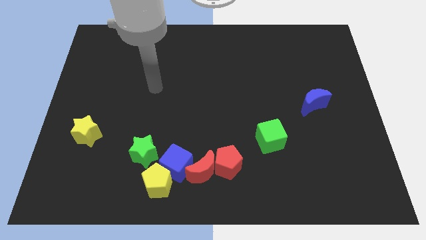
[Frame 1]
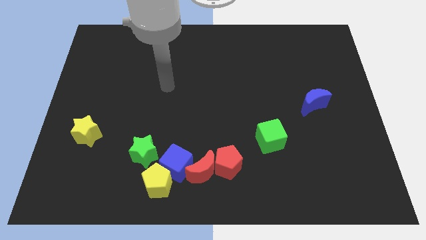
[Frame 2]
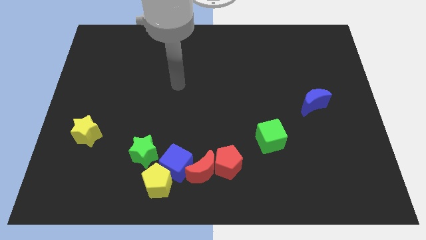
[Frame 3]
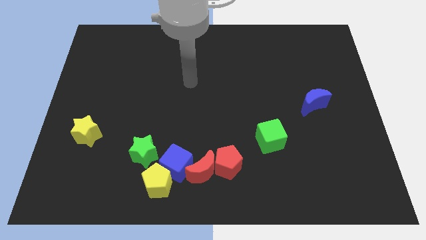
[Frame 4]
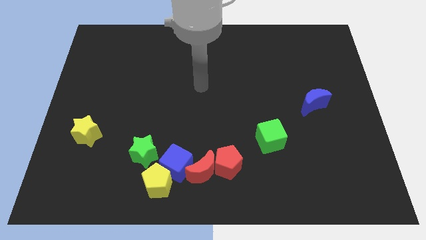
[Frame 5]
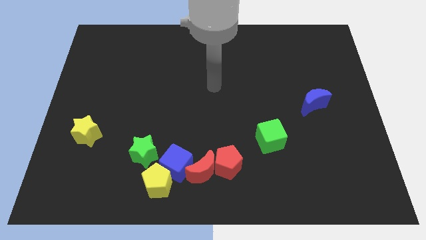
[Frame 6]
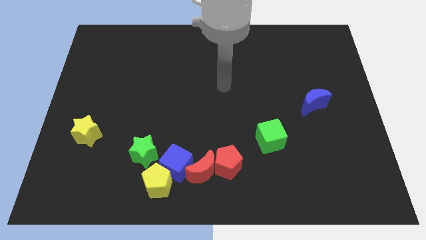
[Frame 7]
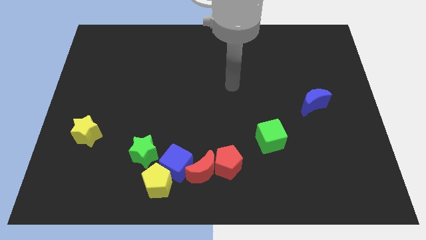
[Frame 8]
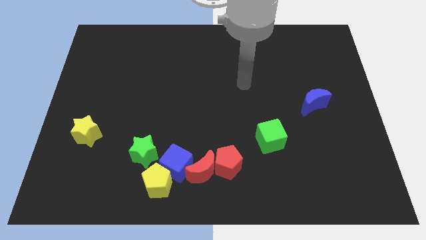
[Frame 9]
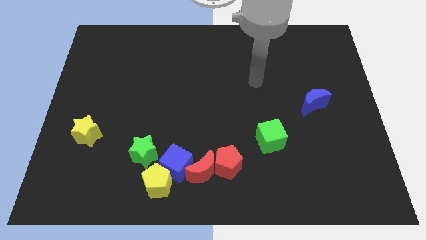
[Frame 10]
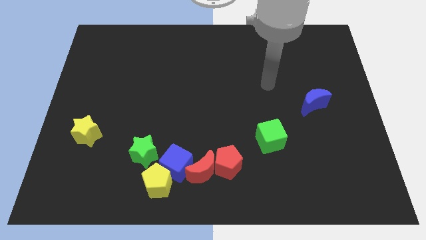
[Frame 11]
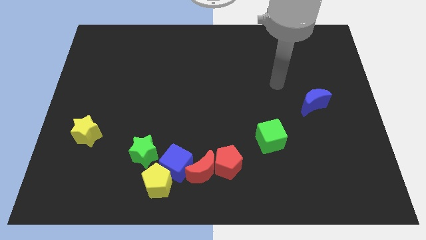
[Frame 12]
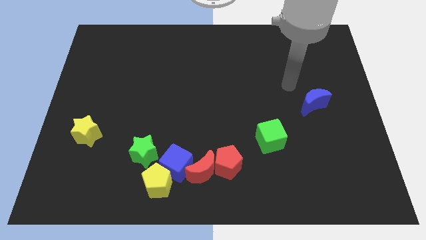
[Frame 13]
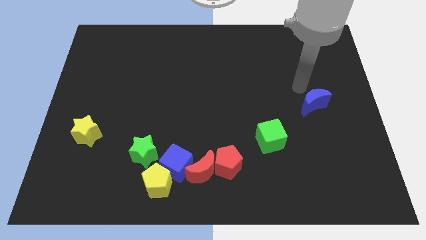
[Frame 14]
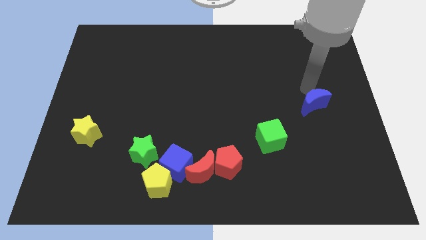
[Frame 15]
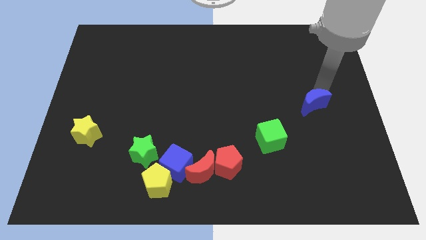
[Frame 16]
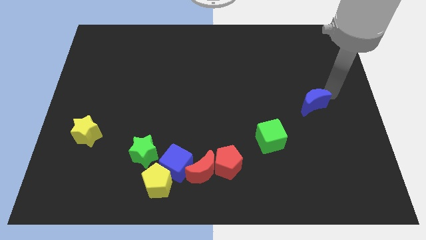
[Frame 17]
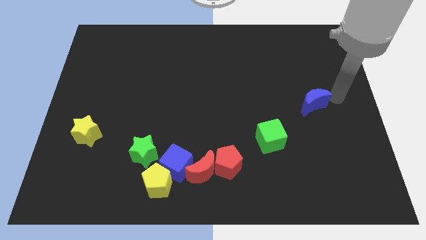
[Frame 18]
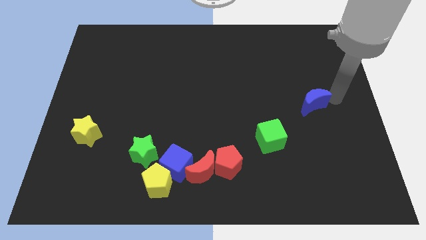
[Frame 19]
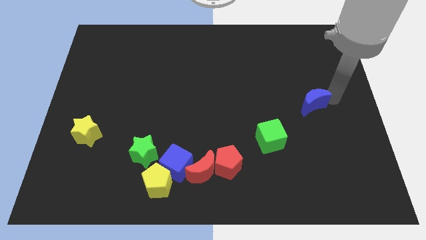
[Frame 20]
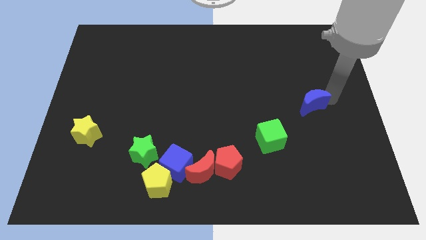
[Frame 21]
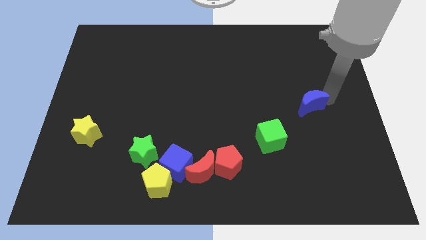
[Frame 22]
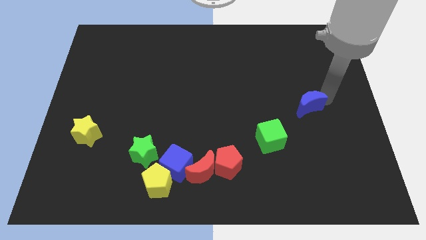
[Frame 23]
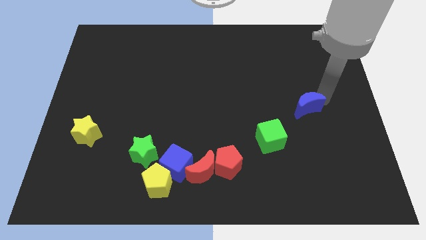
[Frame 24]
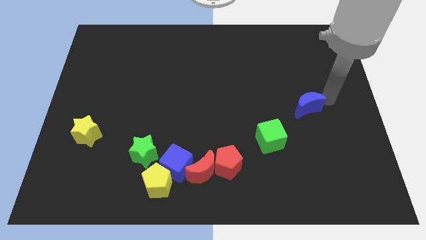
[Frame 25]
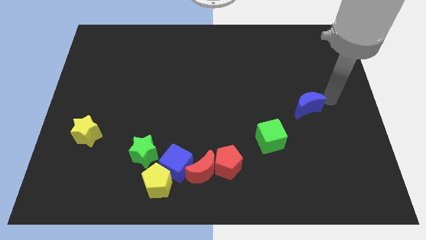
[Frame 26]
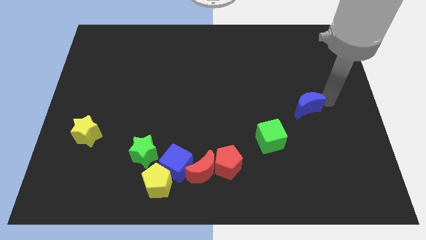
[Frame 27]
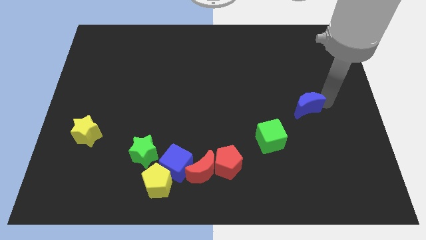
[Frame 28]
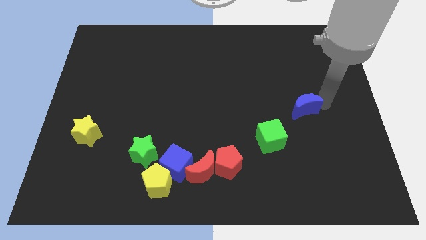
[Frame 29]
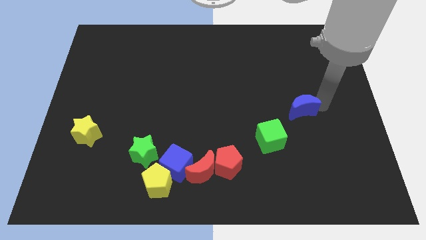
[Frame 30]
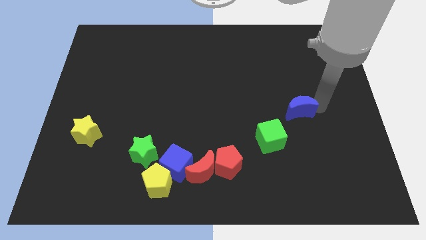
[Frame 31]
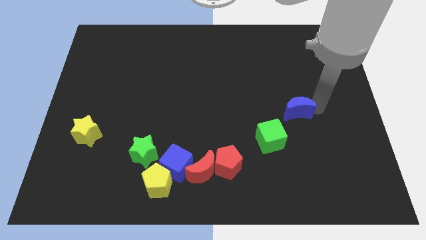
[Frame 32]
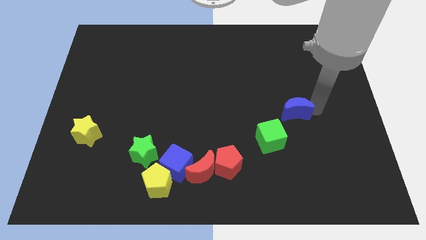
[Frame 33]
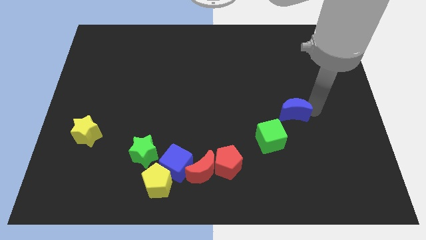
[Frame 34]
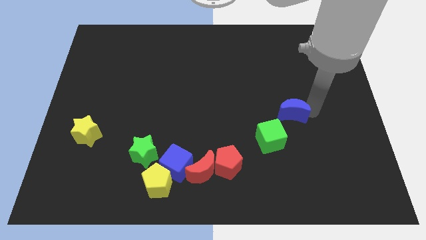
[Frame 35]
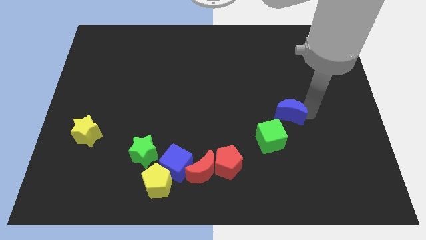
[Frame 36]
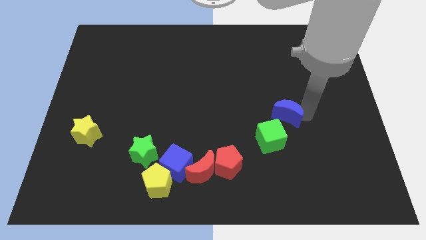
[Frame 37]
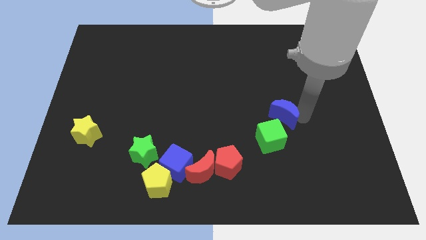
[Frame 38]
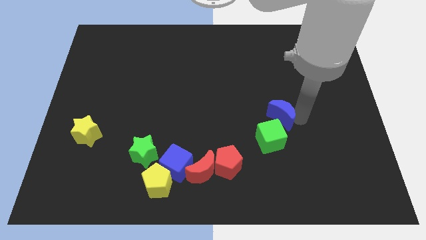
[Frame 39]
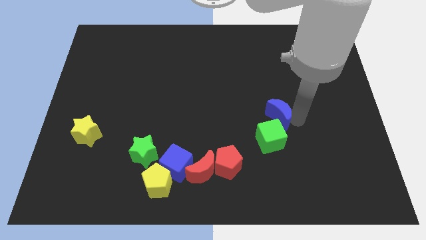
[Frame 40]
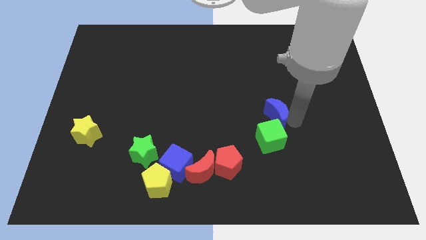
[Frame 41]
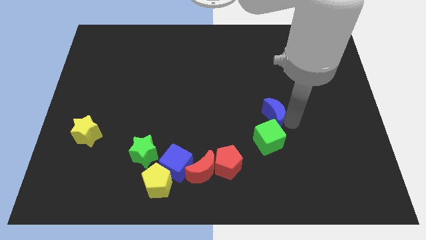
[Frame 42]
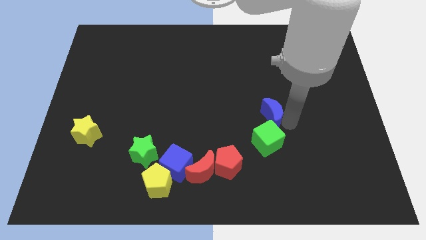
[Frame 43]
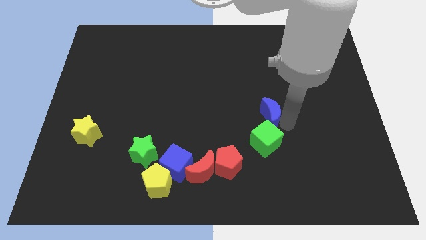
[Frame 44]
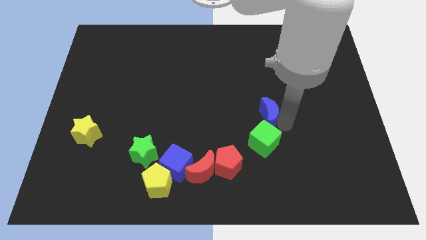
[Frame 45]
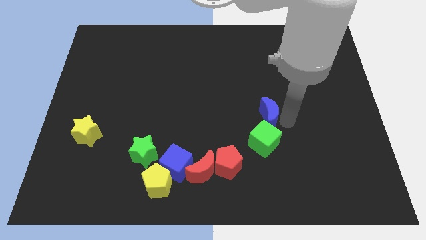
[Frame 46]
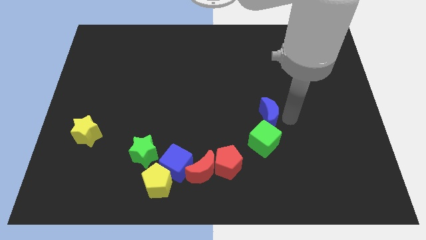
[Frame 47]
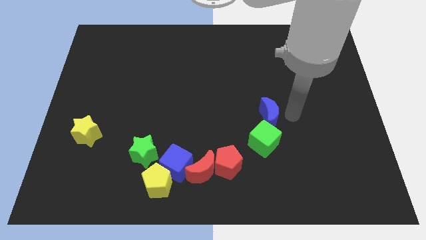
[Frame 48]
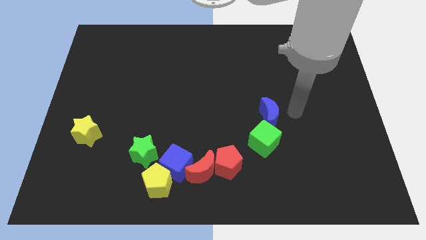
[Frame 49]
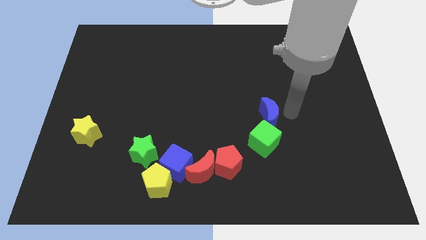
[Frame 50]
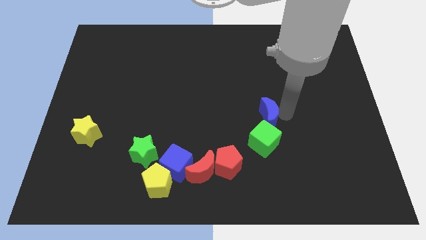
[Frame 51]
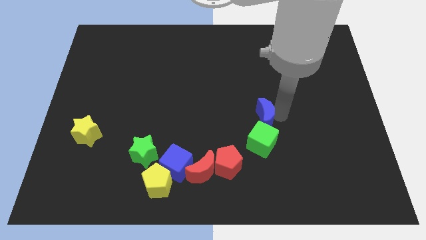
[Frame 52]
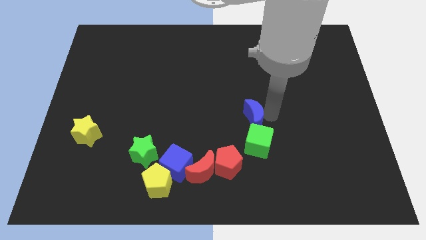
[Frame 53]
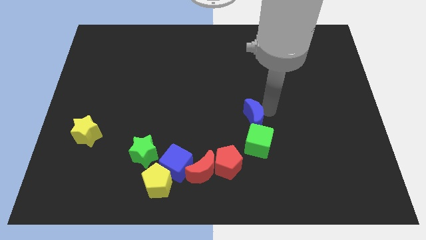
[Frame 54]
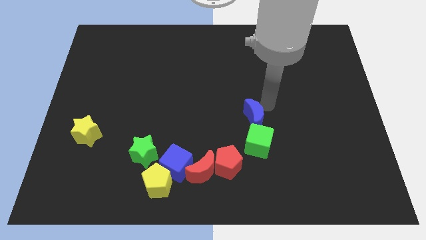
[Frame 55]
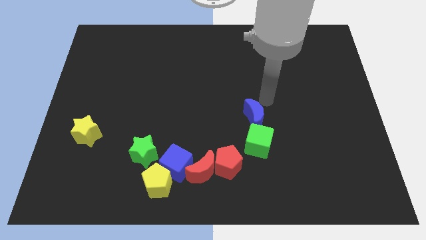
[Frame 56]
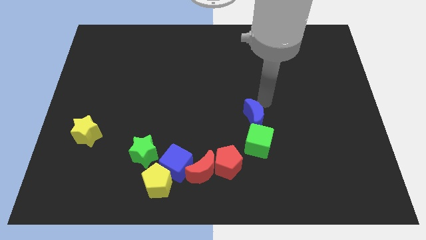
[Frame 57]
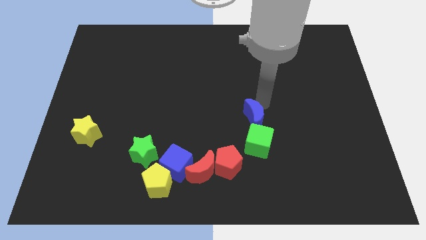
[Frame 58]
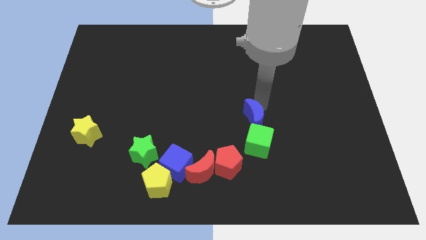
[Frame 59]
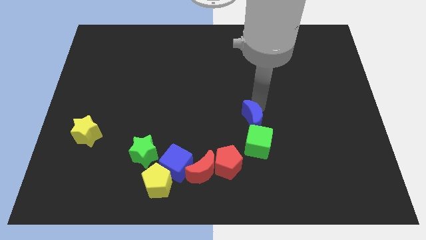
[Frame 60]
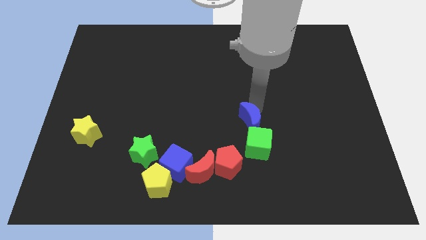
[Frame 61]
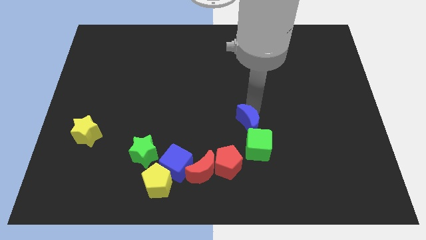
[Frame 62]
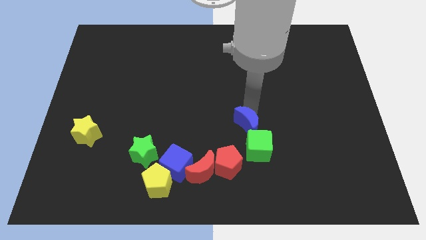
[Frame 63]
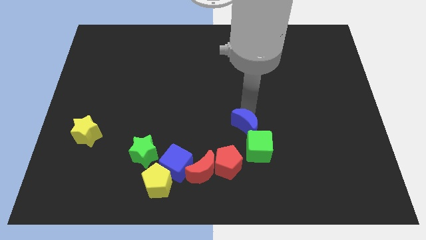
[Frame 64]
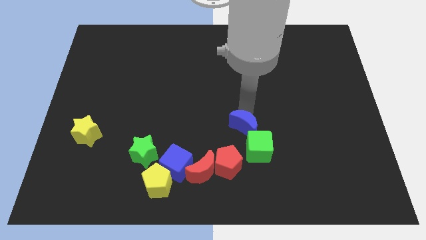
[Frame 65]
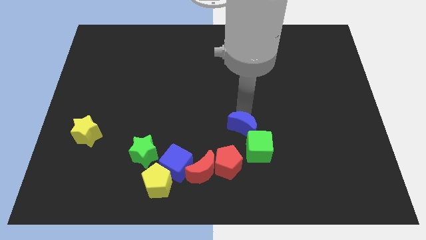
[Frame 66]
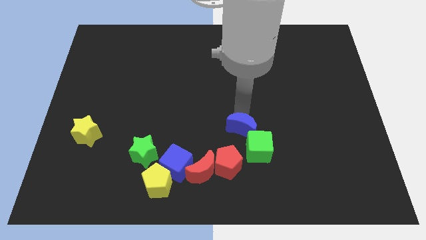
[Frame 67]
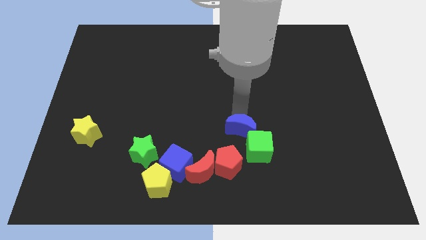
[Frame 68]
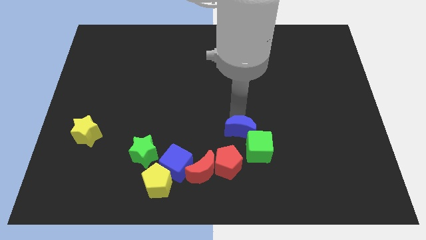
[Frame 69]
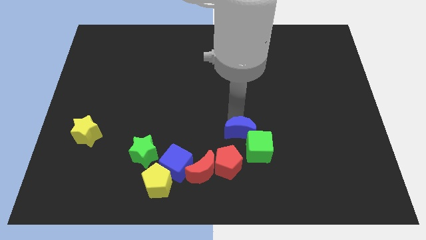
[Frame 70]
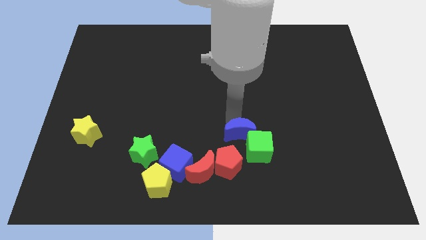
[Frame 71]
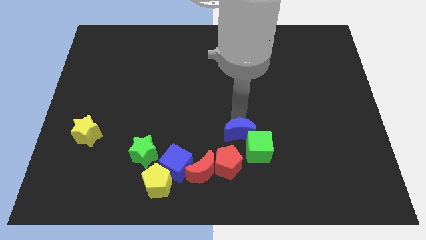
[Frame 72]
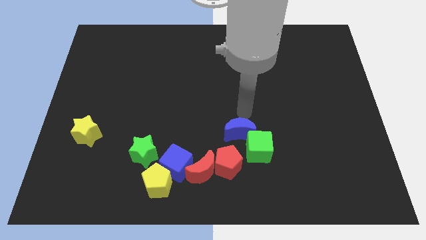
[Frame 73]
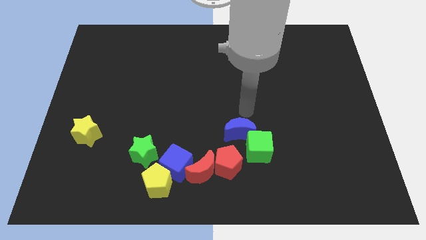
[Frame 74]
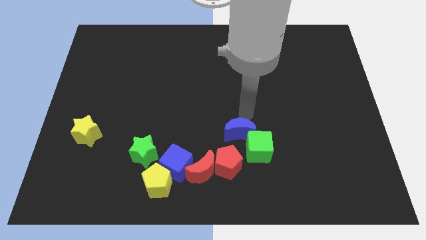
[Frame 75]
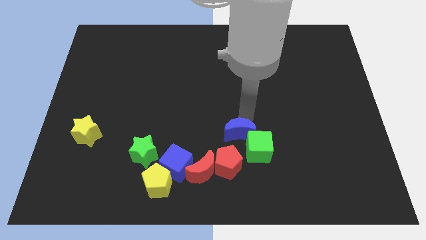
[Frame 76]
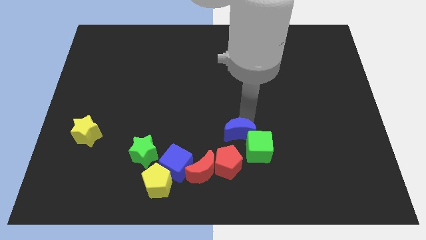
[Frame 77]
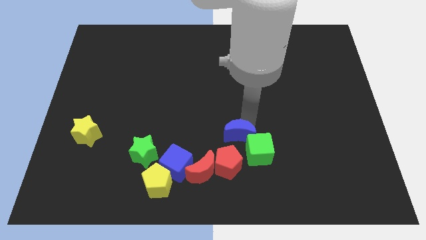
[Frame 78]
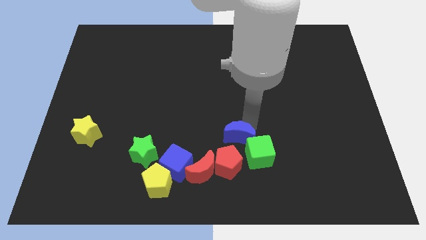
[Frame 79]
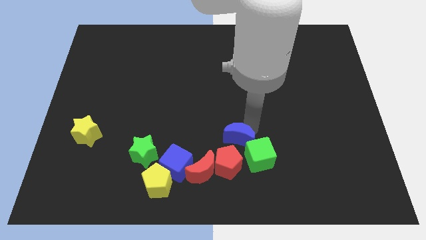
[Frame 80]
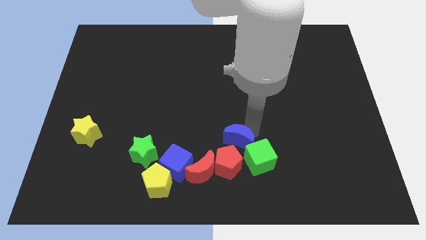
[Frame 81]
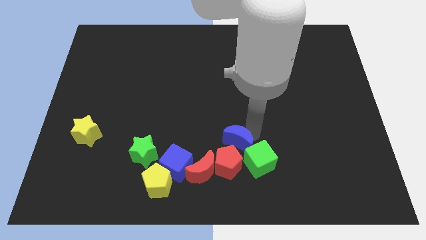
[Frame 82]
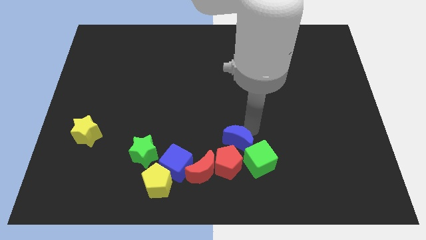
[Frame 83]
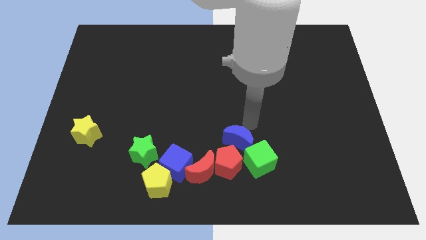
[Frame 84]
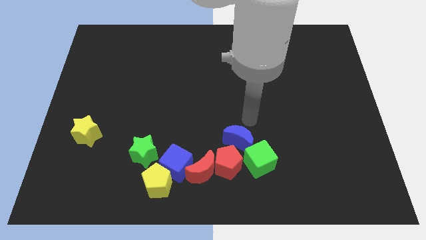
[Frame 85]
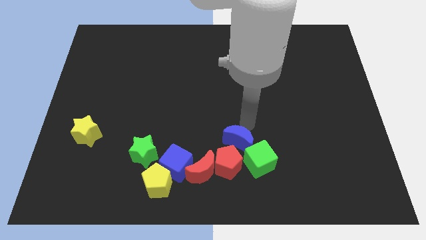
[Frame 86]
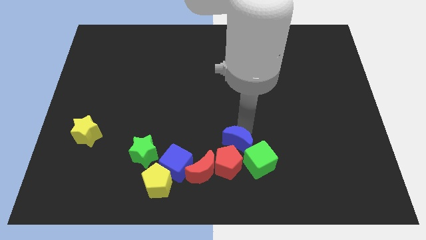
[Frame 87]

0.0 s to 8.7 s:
put the blue moon next to the red pentagon
